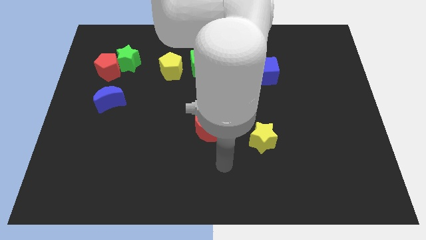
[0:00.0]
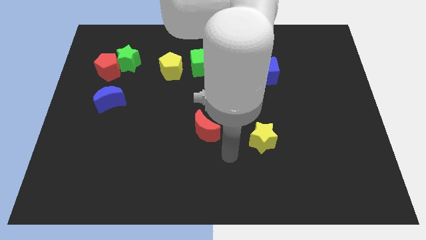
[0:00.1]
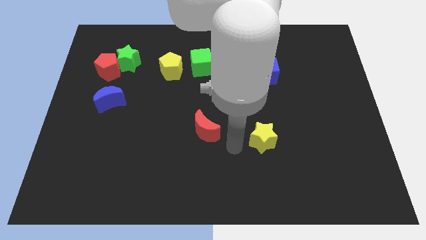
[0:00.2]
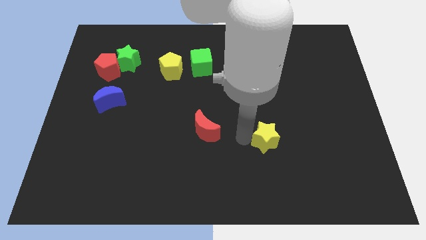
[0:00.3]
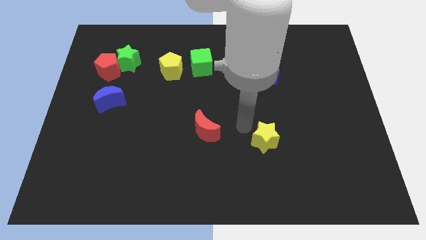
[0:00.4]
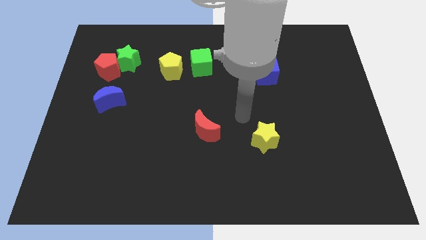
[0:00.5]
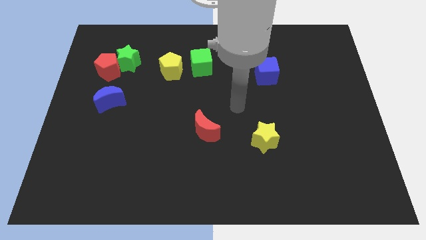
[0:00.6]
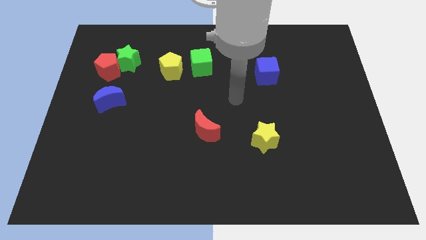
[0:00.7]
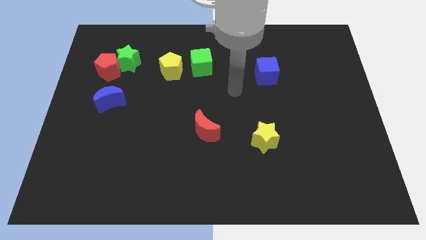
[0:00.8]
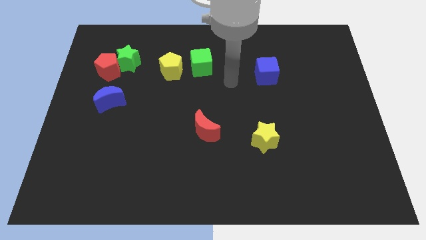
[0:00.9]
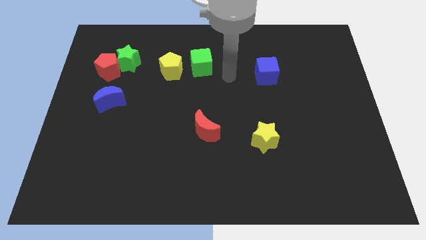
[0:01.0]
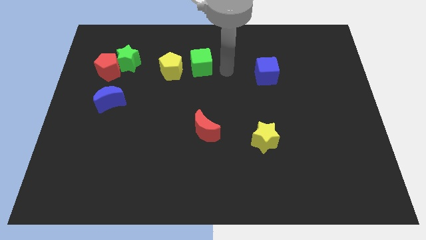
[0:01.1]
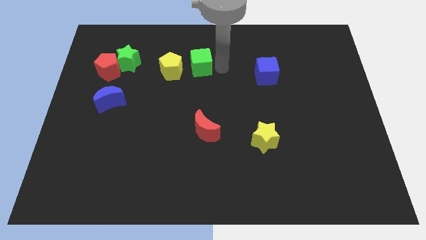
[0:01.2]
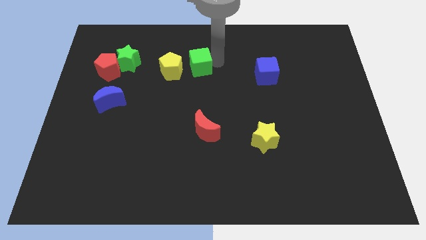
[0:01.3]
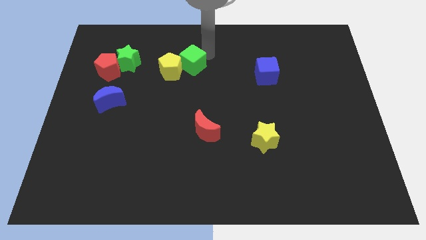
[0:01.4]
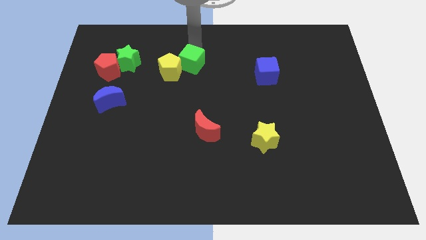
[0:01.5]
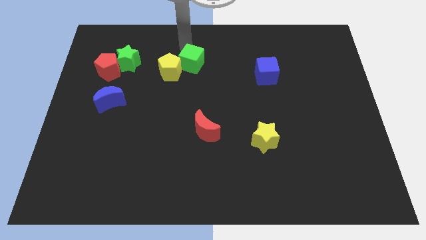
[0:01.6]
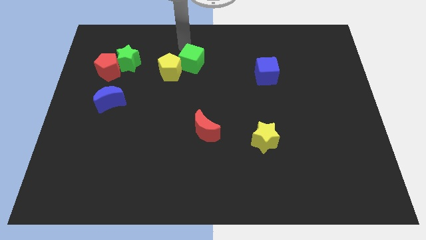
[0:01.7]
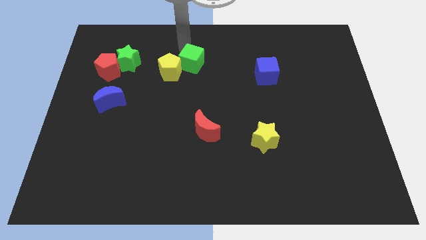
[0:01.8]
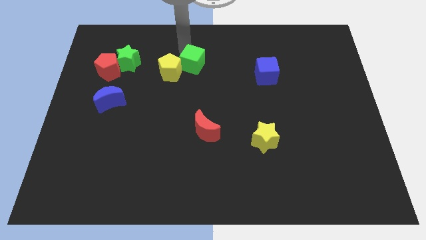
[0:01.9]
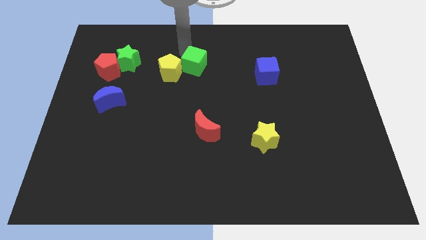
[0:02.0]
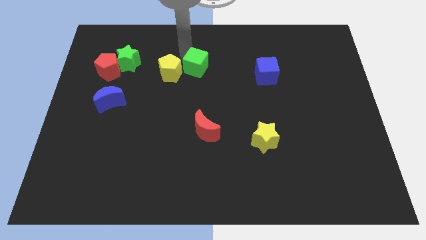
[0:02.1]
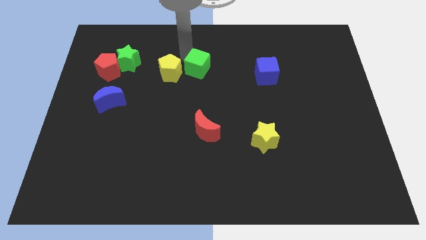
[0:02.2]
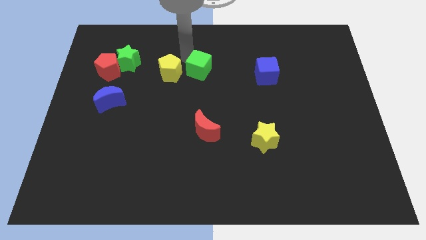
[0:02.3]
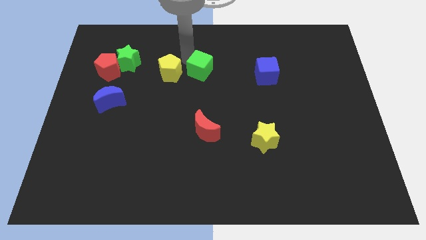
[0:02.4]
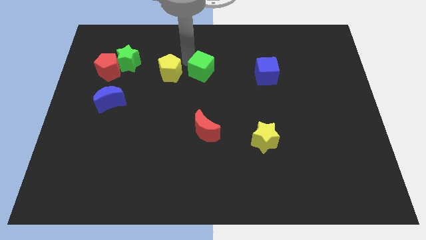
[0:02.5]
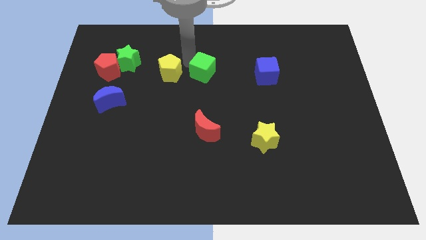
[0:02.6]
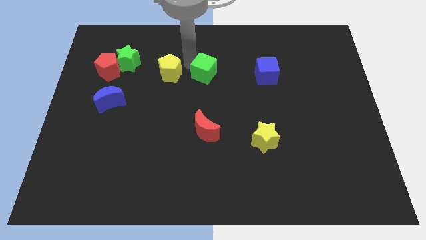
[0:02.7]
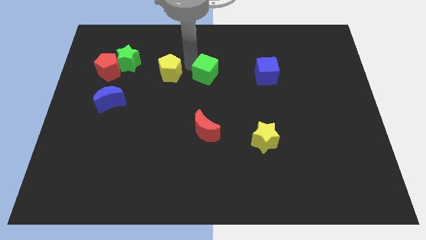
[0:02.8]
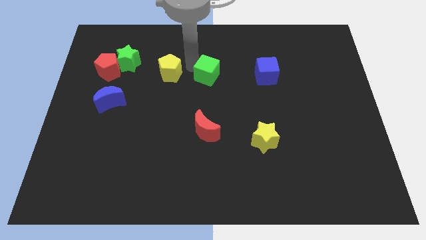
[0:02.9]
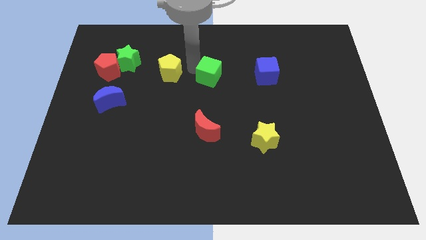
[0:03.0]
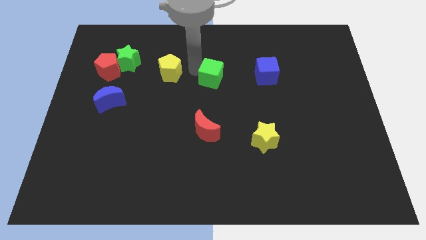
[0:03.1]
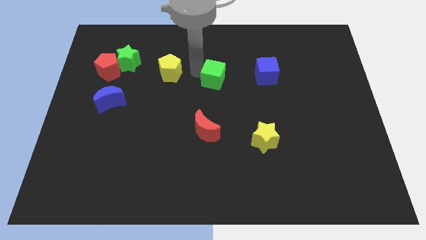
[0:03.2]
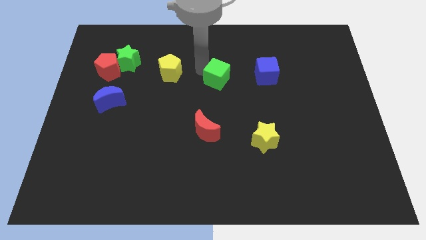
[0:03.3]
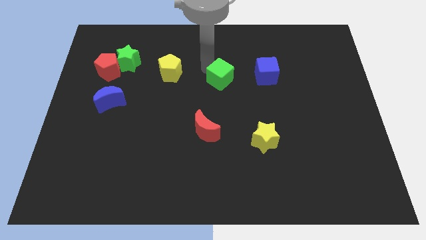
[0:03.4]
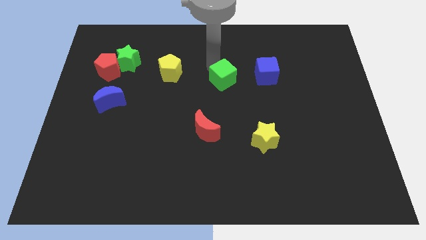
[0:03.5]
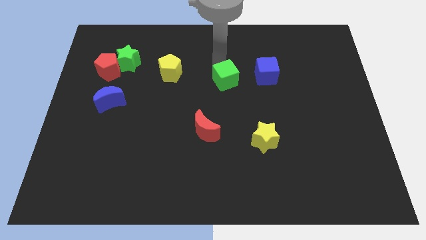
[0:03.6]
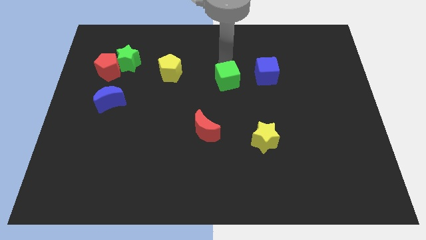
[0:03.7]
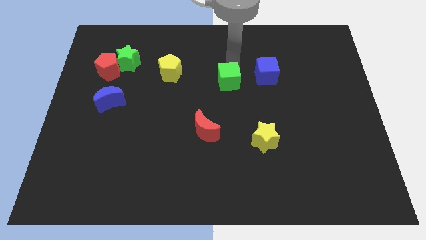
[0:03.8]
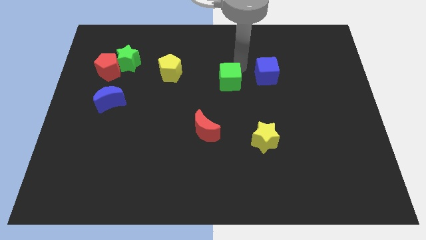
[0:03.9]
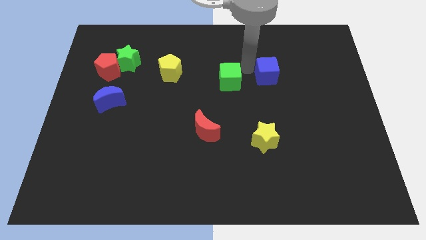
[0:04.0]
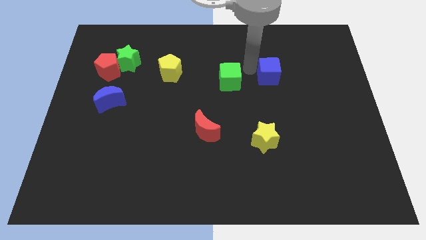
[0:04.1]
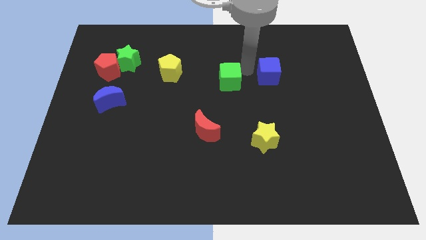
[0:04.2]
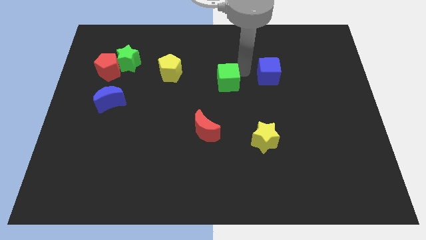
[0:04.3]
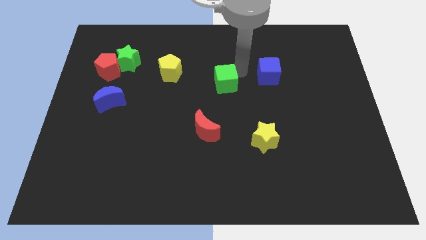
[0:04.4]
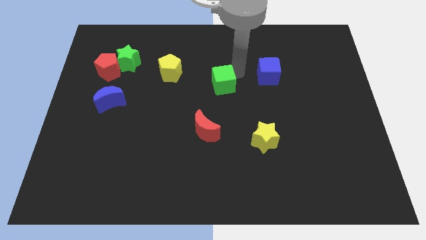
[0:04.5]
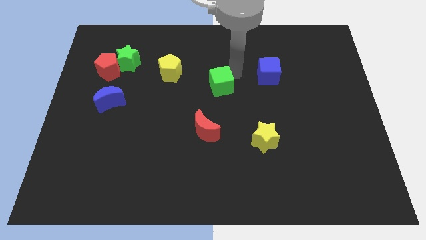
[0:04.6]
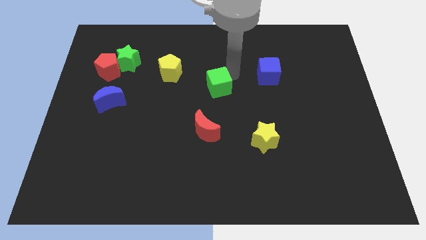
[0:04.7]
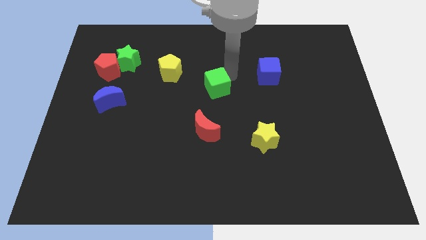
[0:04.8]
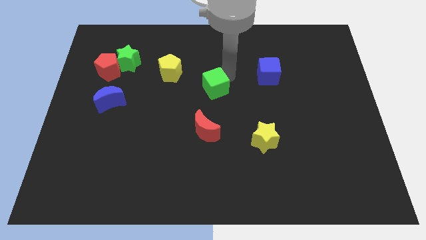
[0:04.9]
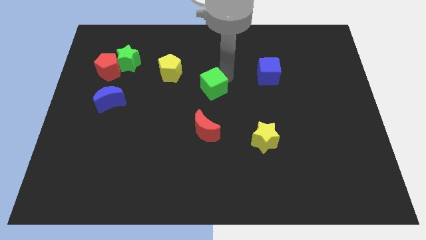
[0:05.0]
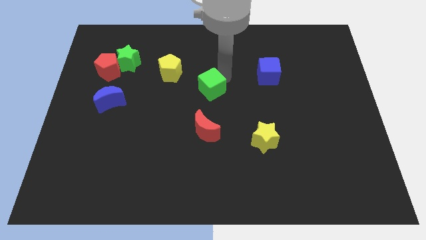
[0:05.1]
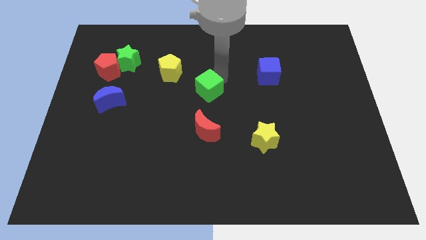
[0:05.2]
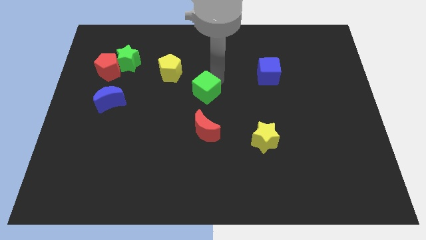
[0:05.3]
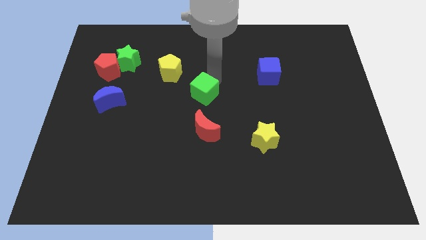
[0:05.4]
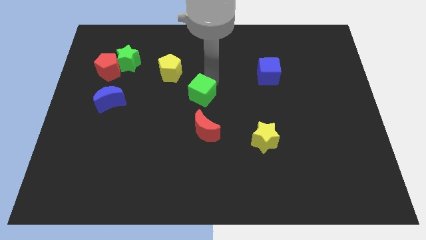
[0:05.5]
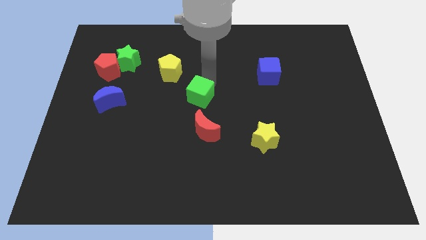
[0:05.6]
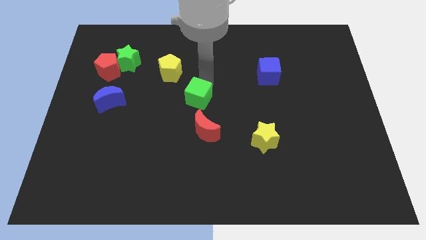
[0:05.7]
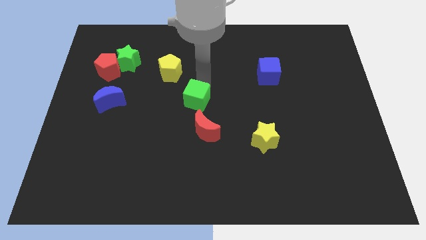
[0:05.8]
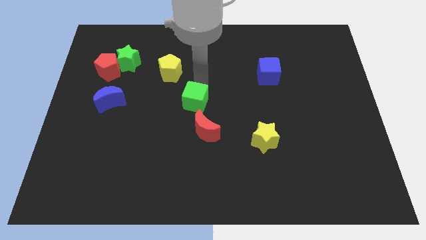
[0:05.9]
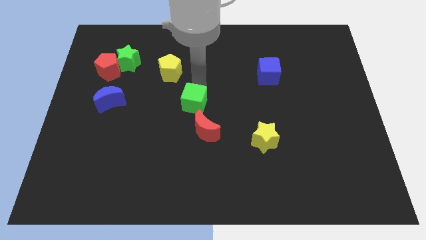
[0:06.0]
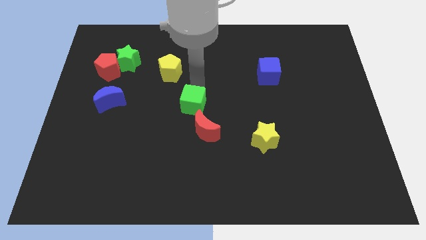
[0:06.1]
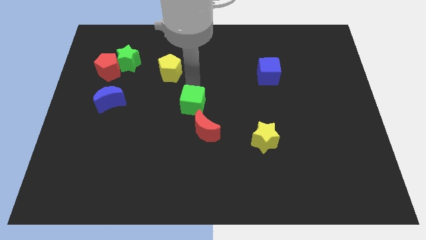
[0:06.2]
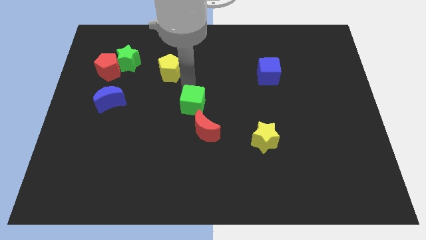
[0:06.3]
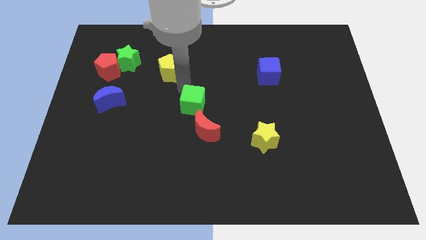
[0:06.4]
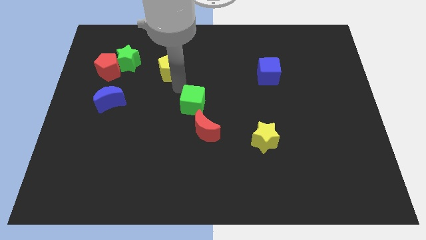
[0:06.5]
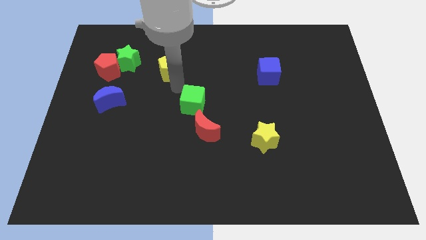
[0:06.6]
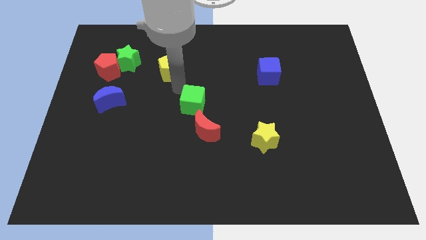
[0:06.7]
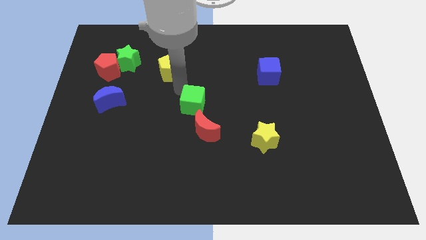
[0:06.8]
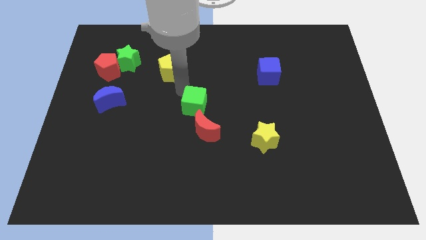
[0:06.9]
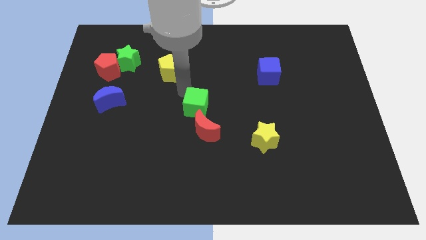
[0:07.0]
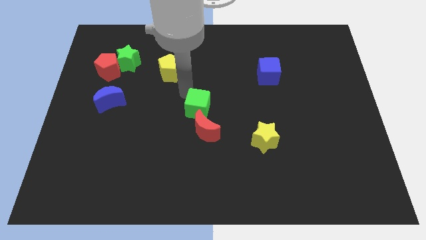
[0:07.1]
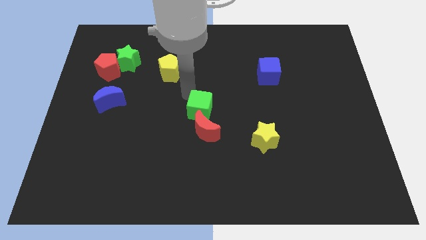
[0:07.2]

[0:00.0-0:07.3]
move the green cube close to the red moon

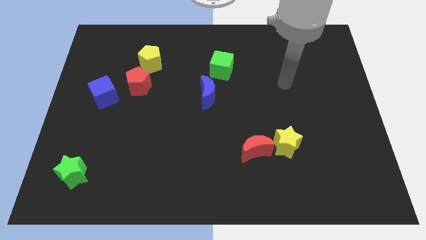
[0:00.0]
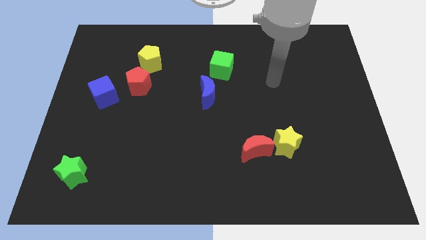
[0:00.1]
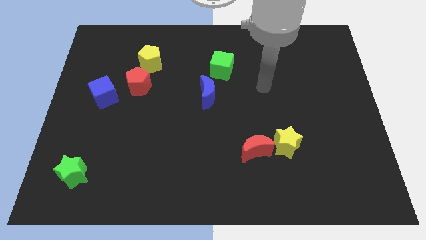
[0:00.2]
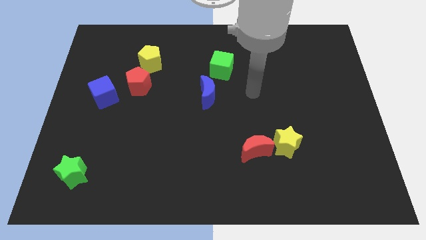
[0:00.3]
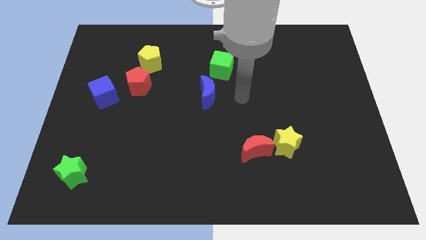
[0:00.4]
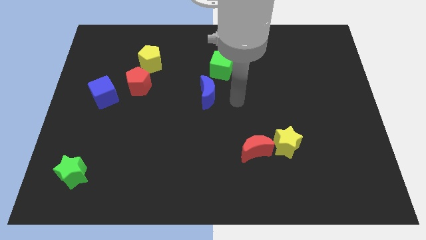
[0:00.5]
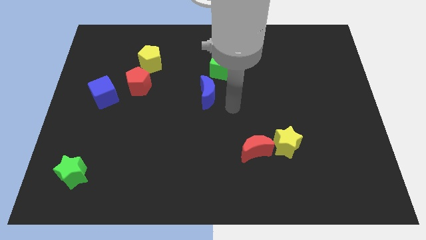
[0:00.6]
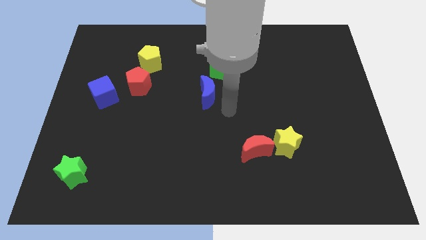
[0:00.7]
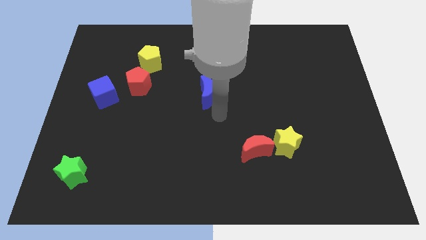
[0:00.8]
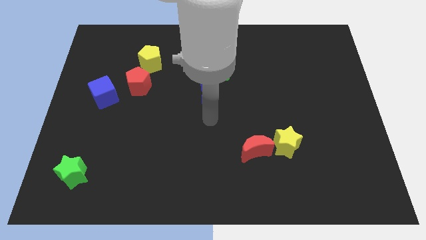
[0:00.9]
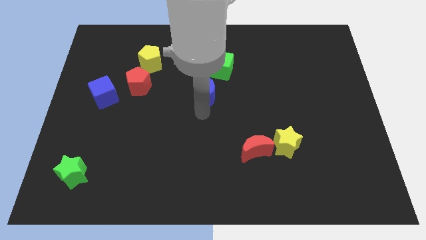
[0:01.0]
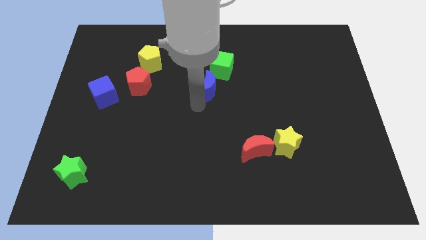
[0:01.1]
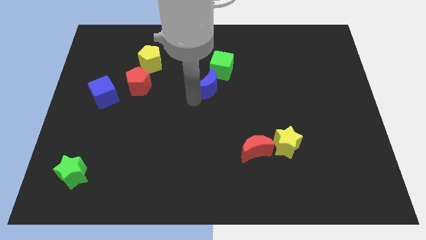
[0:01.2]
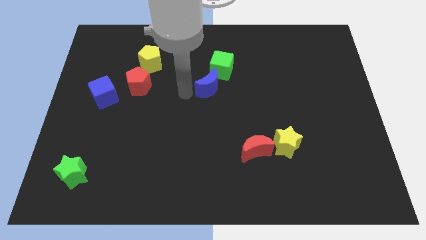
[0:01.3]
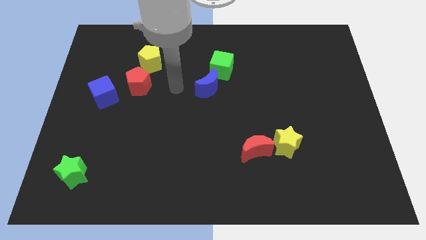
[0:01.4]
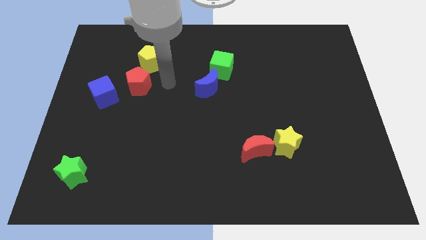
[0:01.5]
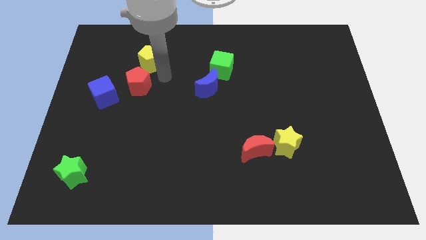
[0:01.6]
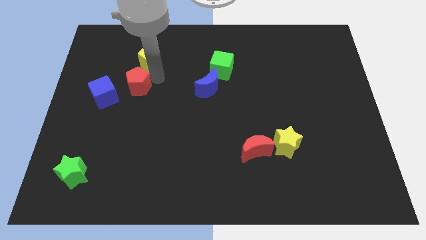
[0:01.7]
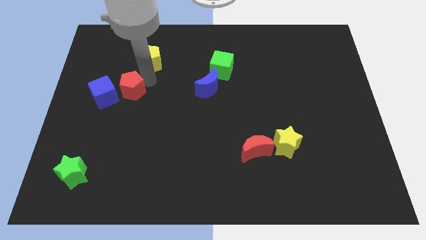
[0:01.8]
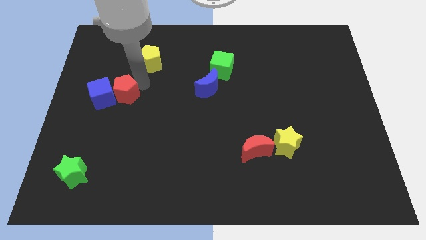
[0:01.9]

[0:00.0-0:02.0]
slide the red pentagon close to the blue cube
